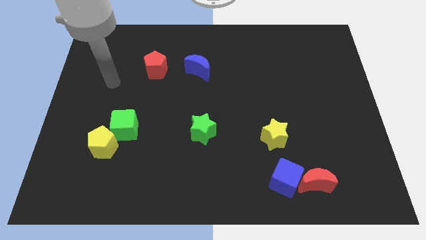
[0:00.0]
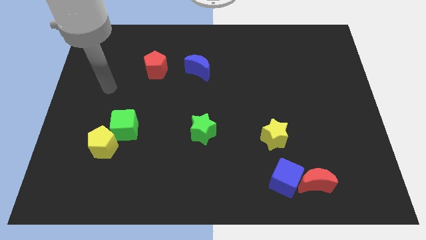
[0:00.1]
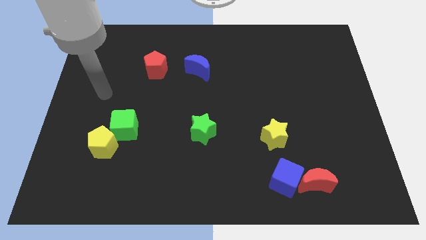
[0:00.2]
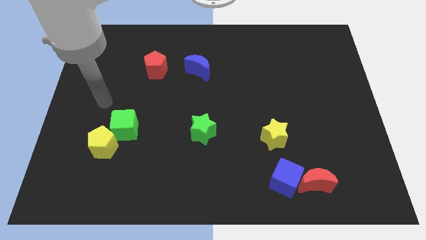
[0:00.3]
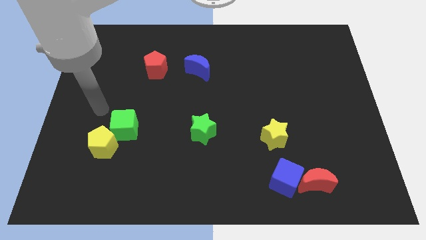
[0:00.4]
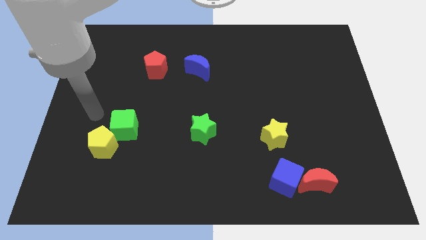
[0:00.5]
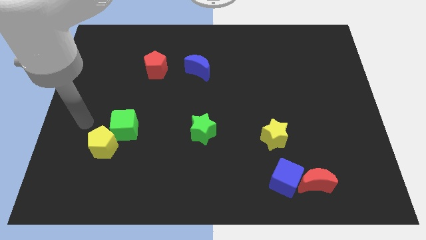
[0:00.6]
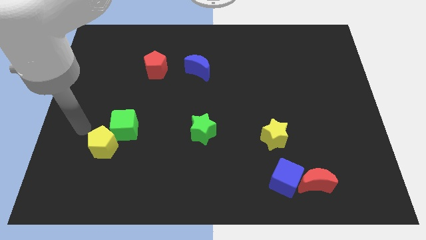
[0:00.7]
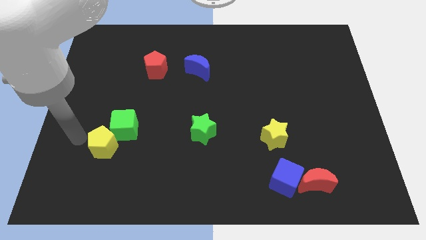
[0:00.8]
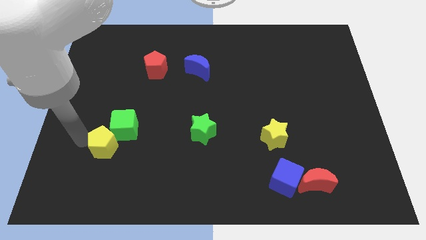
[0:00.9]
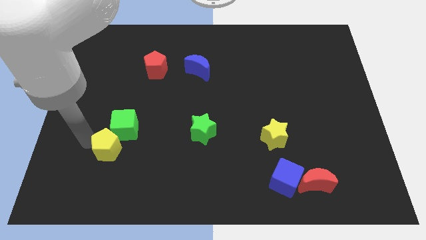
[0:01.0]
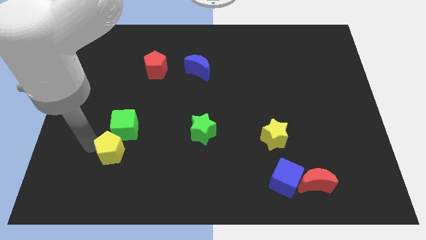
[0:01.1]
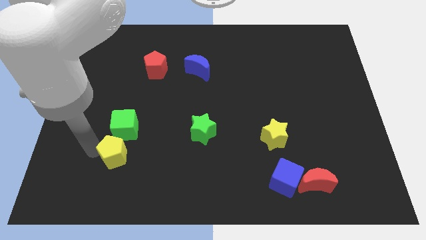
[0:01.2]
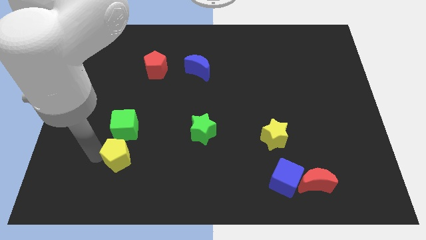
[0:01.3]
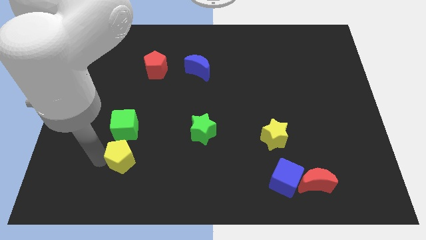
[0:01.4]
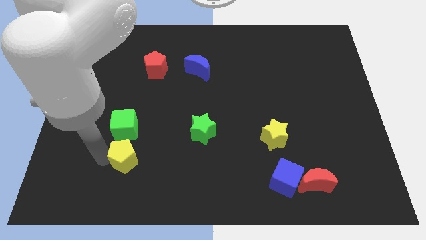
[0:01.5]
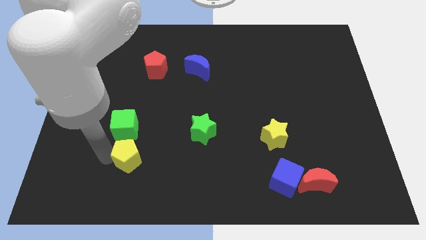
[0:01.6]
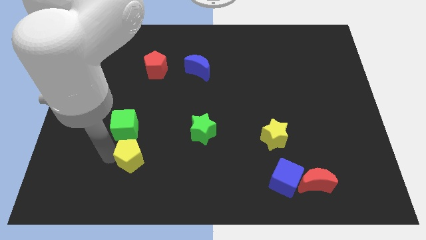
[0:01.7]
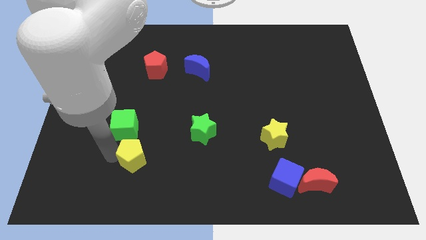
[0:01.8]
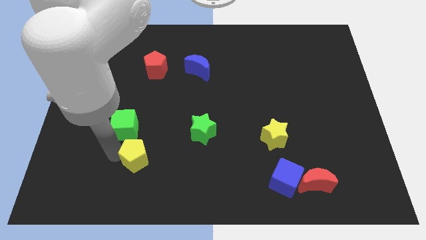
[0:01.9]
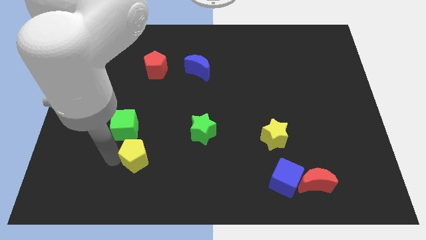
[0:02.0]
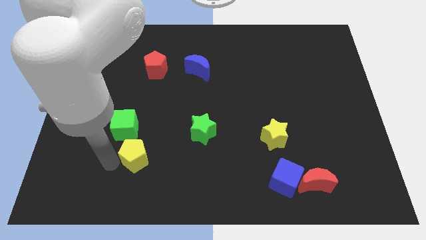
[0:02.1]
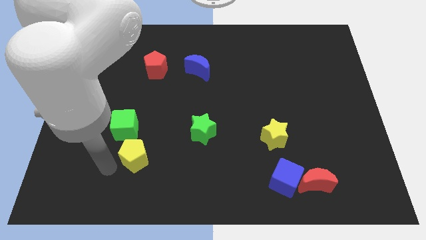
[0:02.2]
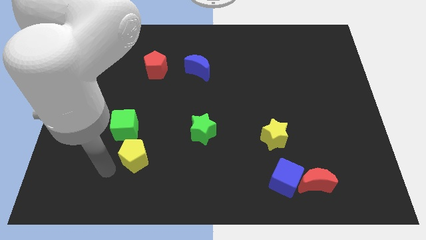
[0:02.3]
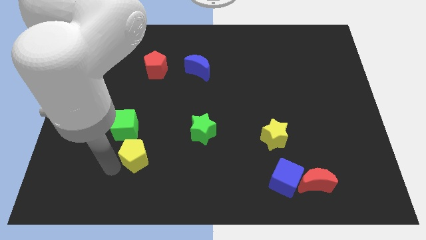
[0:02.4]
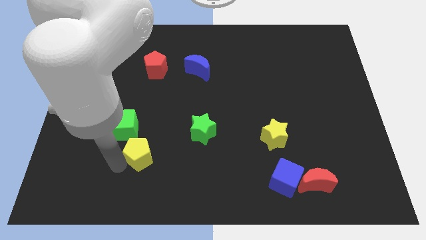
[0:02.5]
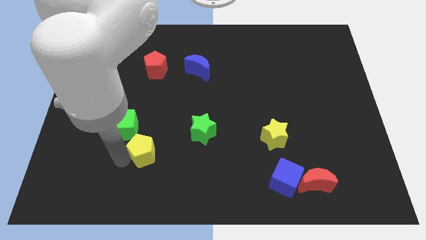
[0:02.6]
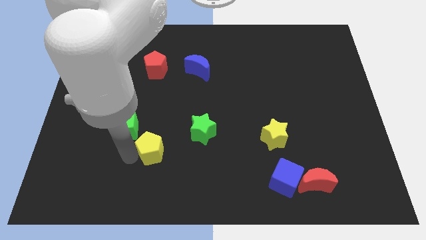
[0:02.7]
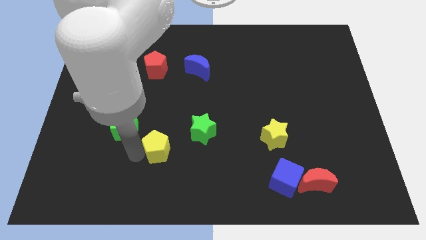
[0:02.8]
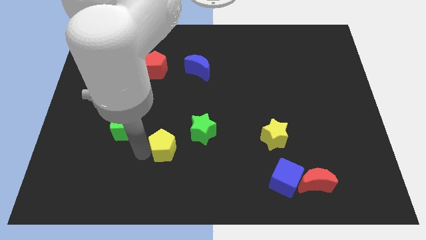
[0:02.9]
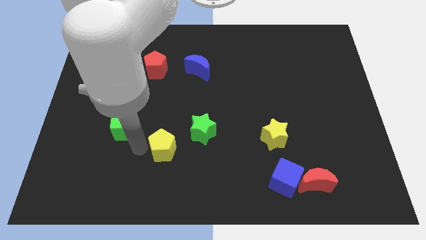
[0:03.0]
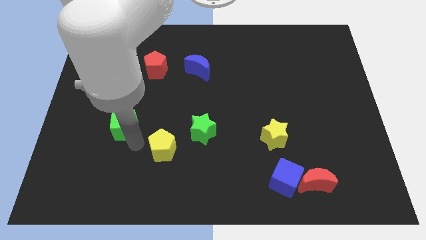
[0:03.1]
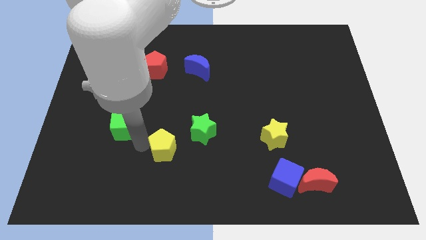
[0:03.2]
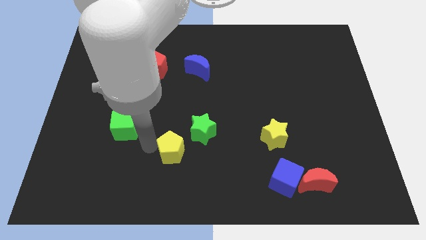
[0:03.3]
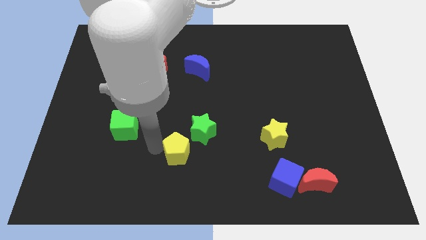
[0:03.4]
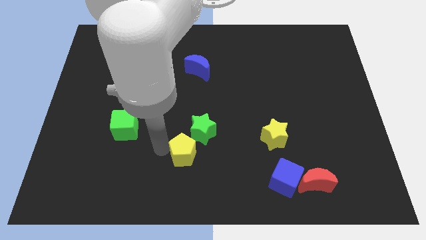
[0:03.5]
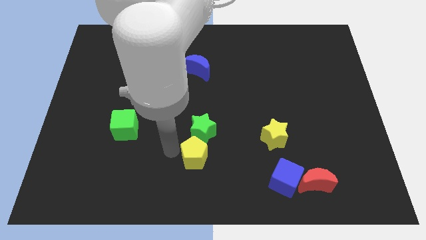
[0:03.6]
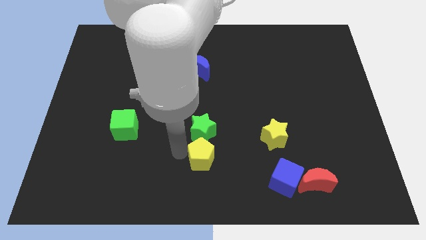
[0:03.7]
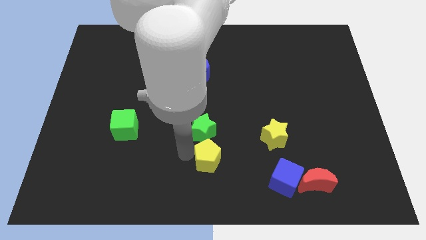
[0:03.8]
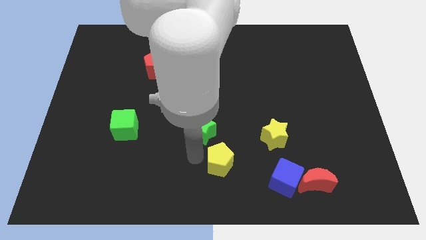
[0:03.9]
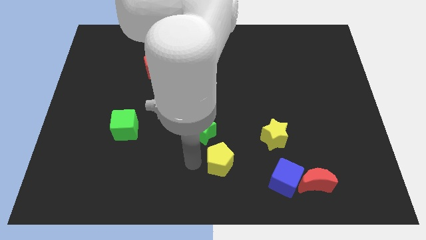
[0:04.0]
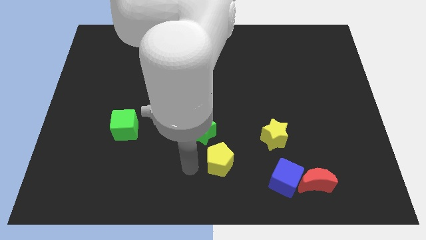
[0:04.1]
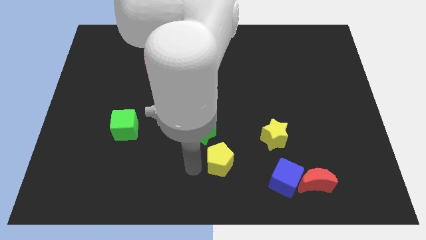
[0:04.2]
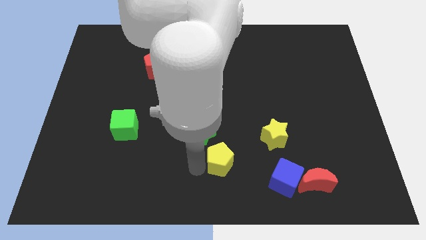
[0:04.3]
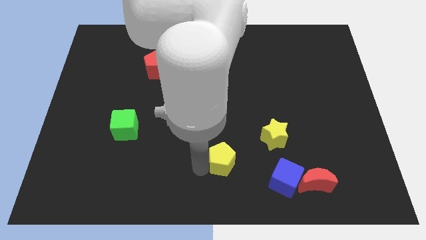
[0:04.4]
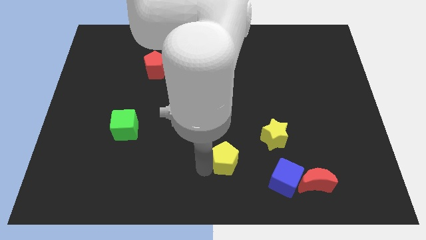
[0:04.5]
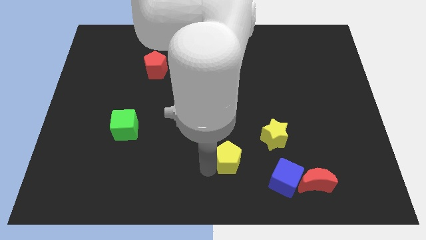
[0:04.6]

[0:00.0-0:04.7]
put the yellow pentagon diagonally down and to the left of the yellow star

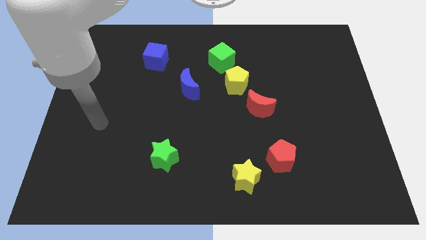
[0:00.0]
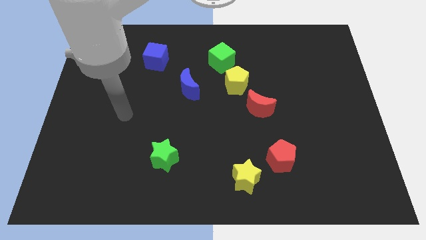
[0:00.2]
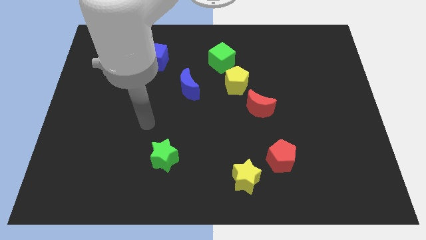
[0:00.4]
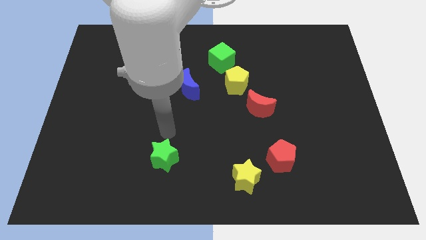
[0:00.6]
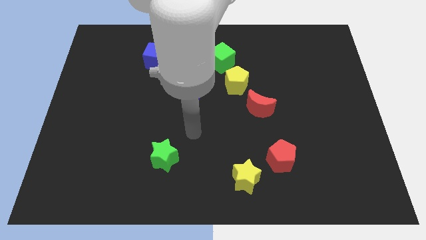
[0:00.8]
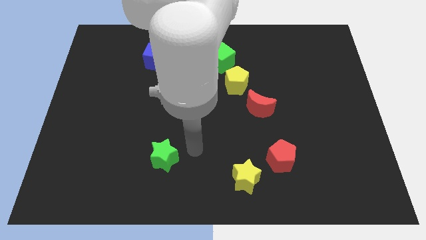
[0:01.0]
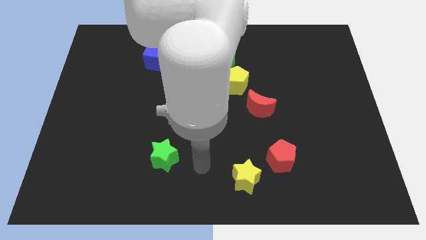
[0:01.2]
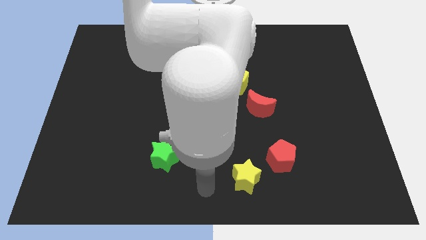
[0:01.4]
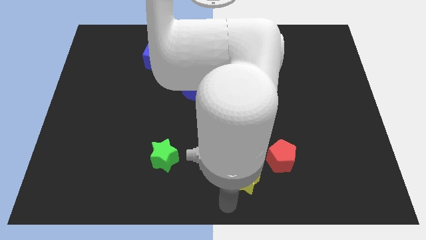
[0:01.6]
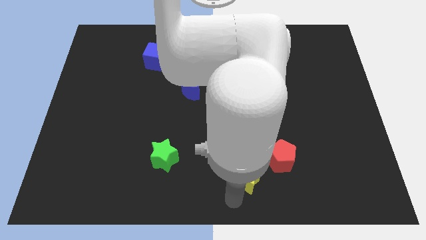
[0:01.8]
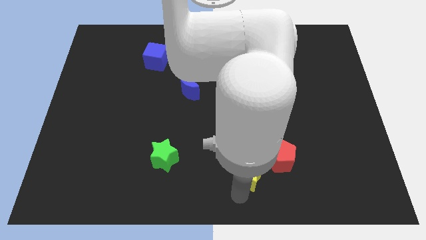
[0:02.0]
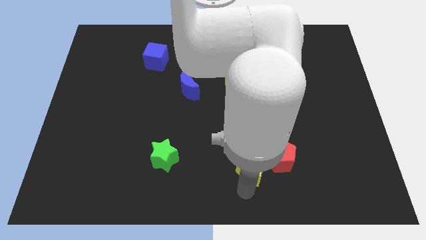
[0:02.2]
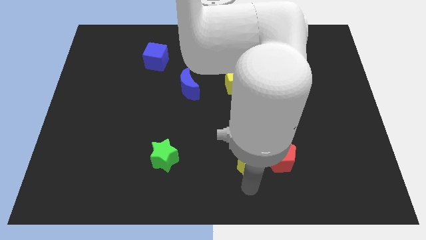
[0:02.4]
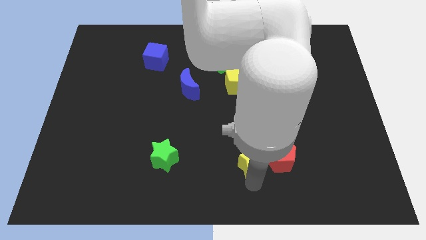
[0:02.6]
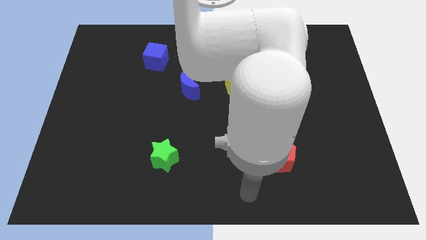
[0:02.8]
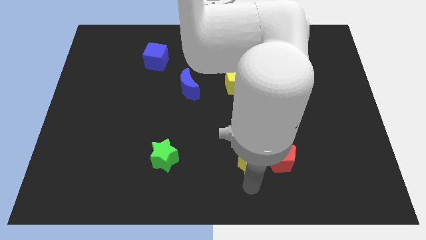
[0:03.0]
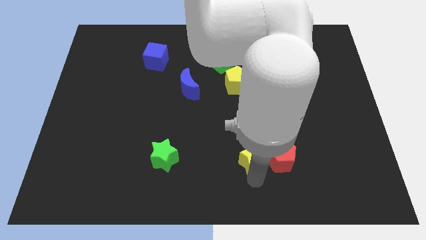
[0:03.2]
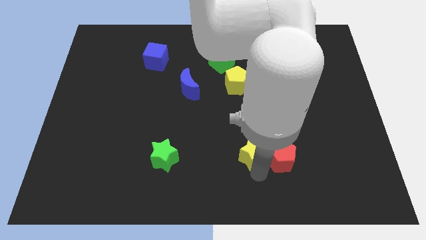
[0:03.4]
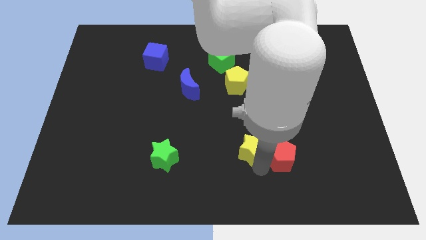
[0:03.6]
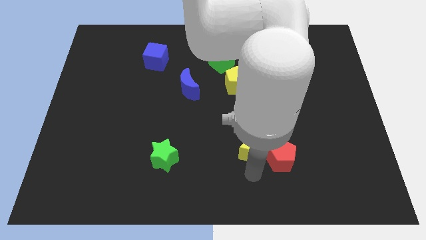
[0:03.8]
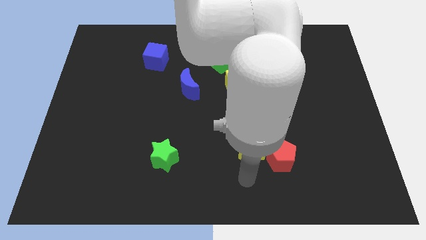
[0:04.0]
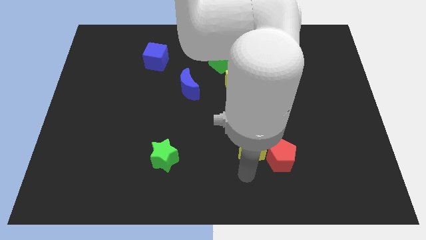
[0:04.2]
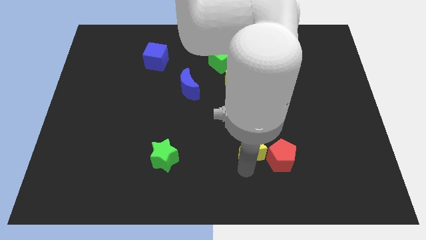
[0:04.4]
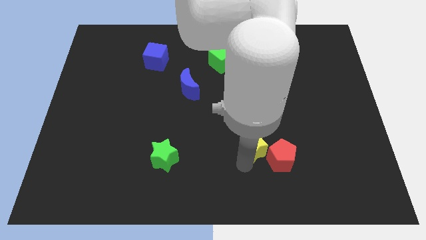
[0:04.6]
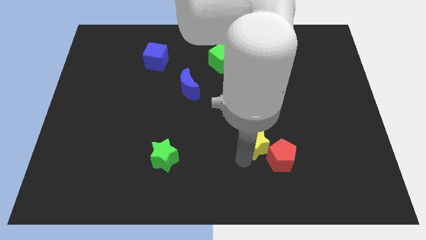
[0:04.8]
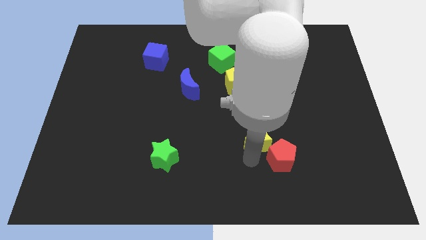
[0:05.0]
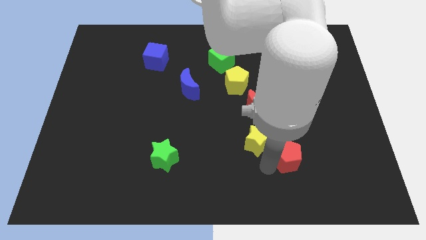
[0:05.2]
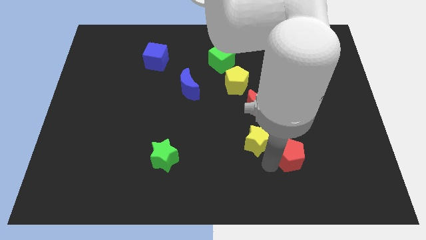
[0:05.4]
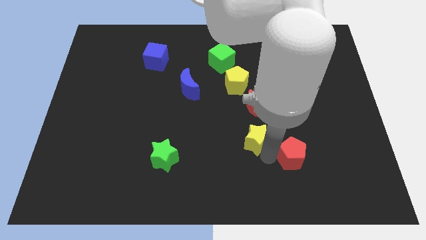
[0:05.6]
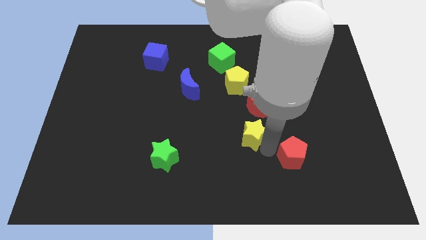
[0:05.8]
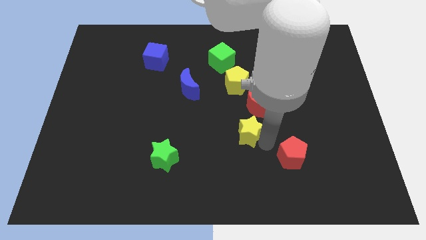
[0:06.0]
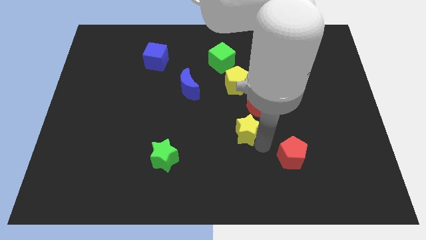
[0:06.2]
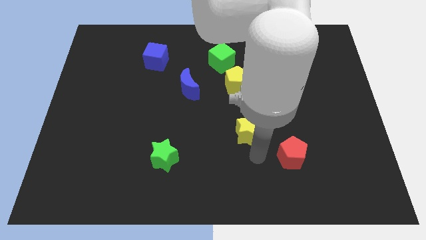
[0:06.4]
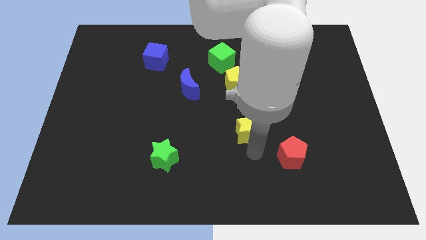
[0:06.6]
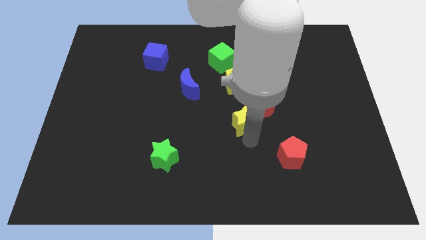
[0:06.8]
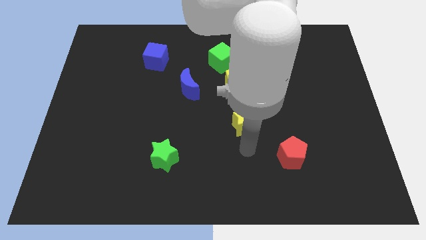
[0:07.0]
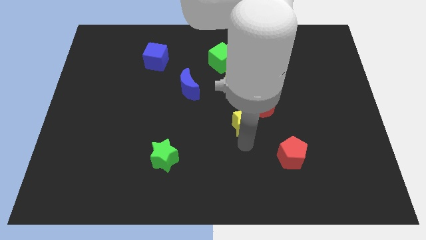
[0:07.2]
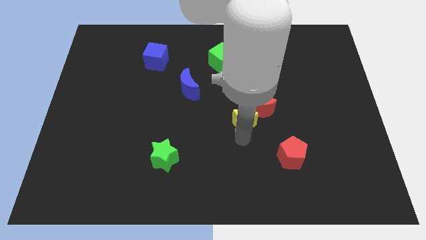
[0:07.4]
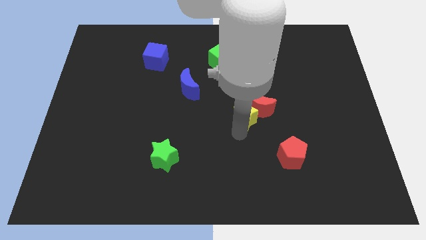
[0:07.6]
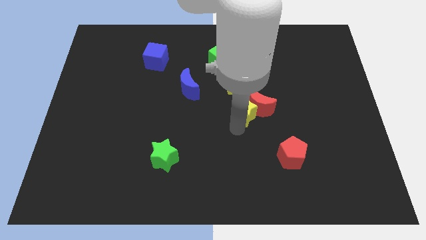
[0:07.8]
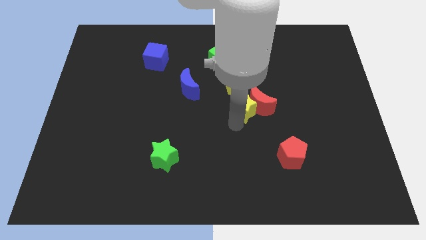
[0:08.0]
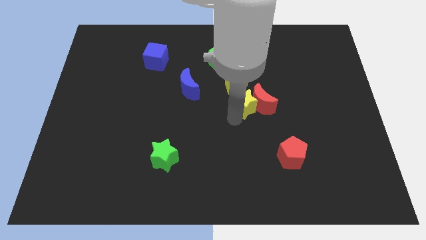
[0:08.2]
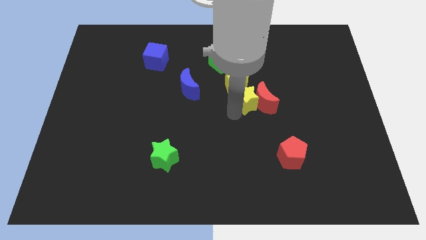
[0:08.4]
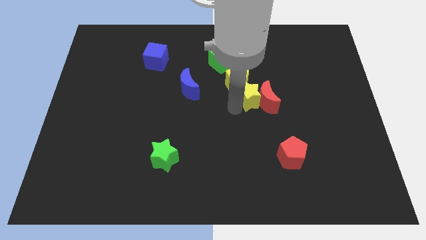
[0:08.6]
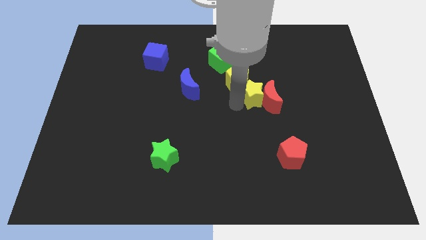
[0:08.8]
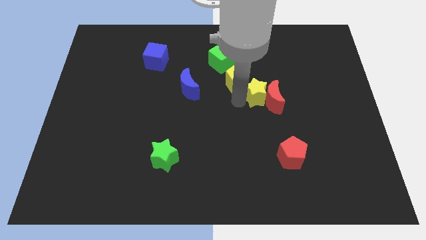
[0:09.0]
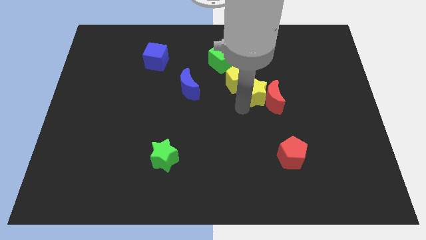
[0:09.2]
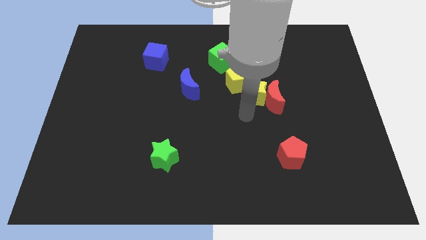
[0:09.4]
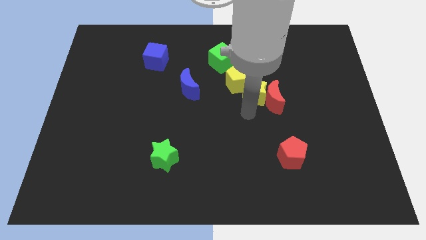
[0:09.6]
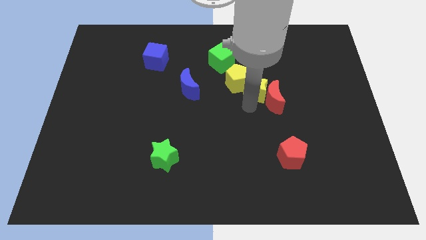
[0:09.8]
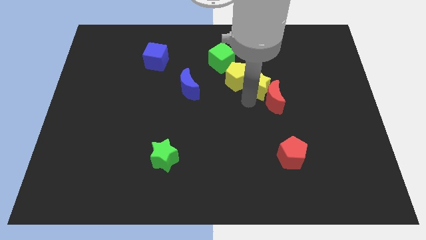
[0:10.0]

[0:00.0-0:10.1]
push the yellow star to the bottom right side of the green cube
